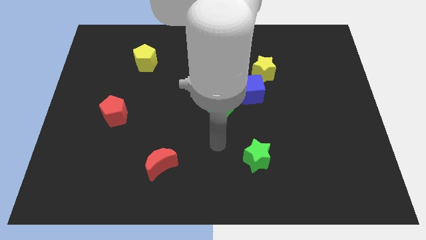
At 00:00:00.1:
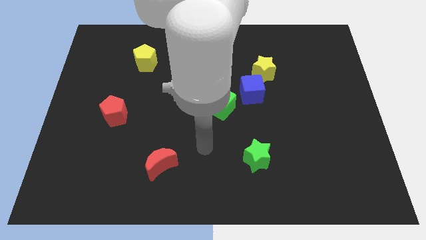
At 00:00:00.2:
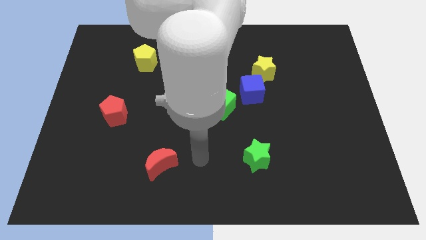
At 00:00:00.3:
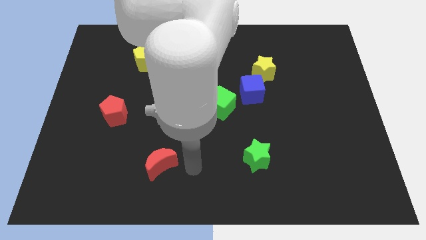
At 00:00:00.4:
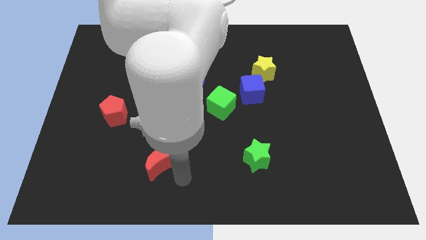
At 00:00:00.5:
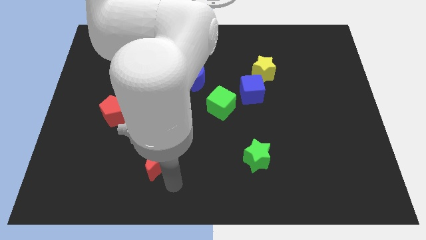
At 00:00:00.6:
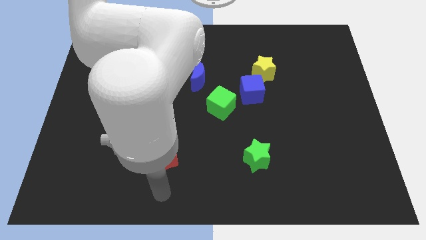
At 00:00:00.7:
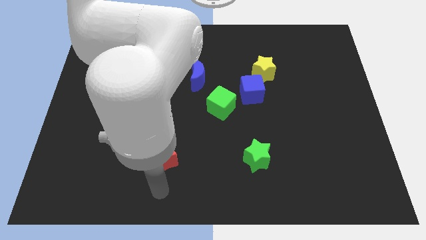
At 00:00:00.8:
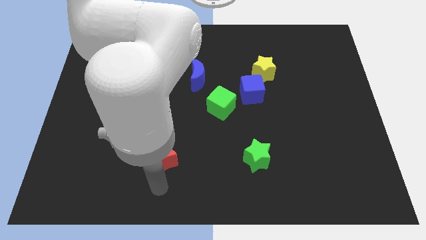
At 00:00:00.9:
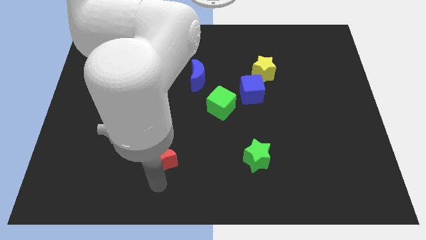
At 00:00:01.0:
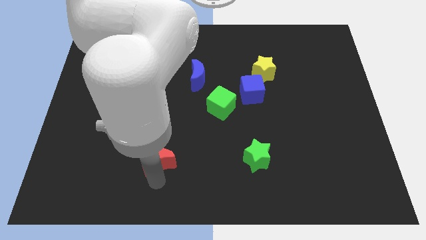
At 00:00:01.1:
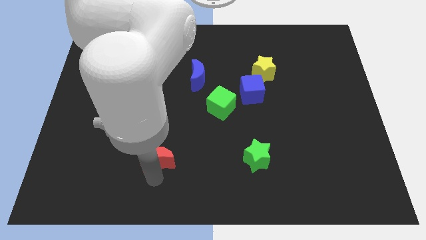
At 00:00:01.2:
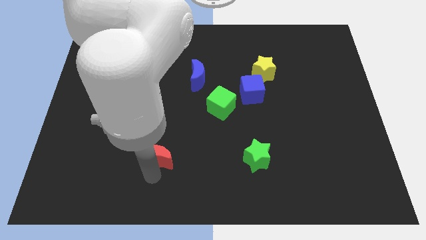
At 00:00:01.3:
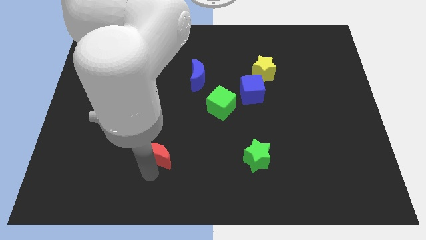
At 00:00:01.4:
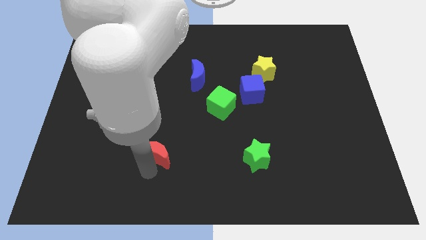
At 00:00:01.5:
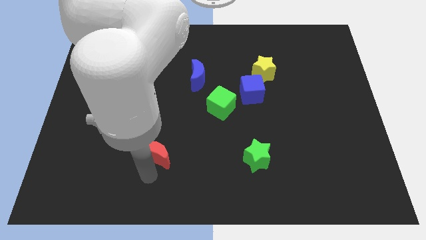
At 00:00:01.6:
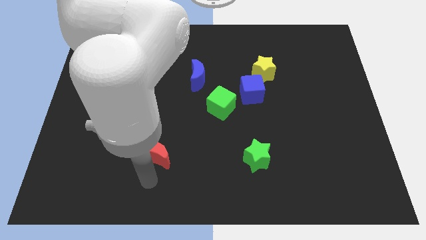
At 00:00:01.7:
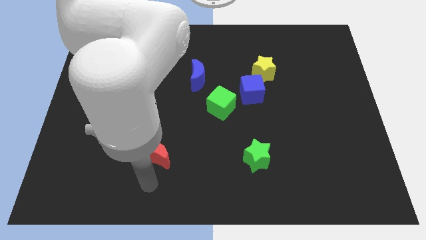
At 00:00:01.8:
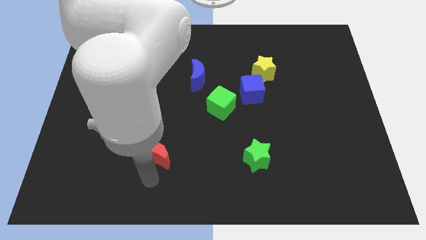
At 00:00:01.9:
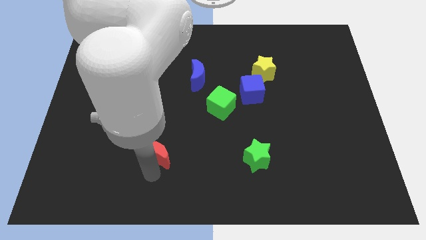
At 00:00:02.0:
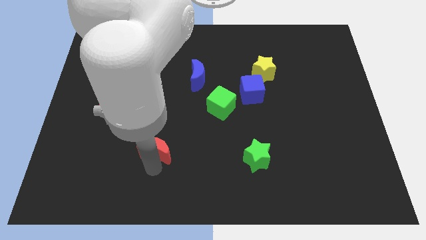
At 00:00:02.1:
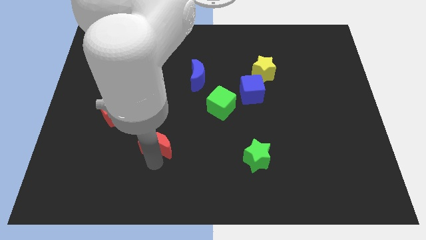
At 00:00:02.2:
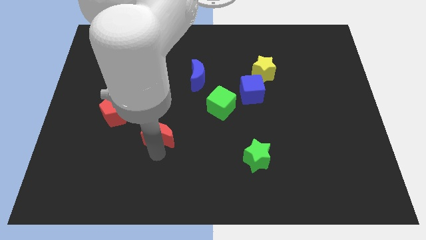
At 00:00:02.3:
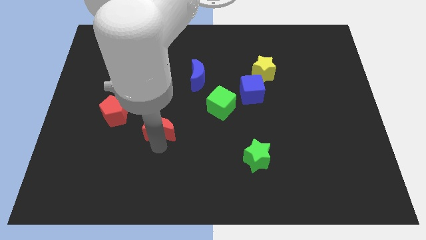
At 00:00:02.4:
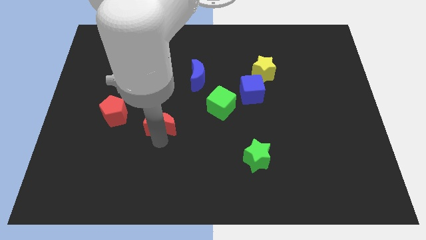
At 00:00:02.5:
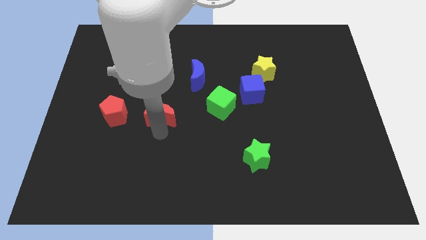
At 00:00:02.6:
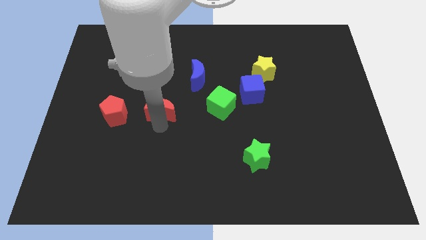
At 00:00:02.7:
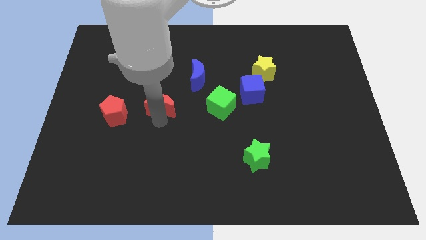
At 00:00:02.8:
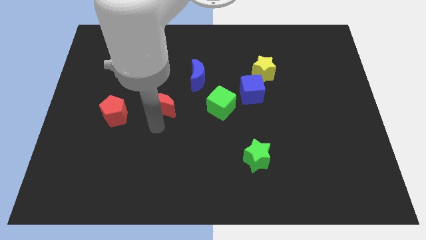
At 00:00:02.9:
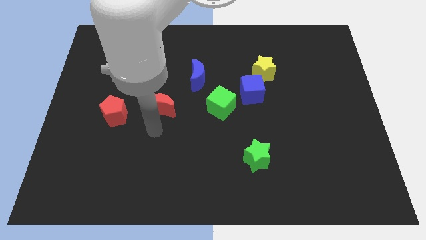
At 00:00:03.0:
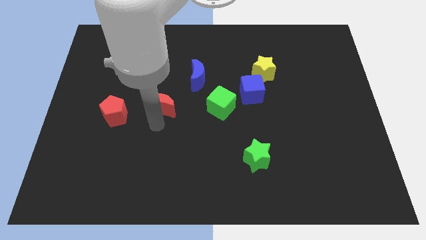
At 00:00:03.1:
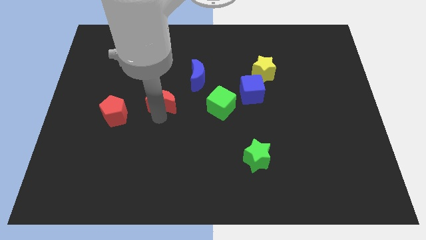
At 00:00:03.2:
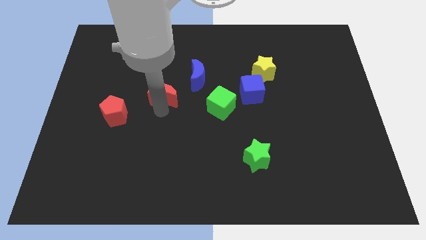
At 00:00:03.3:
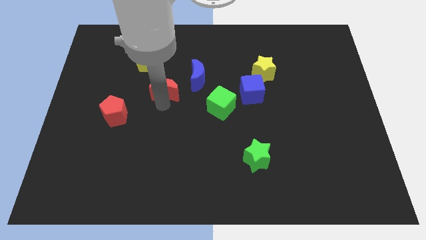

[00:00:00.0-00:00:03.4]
move the red moon up

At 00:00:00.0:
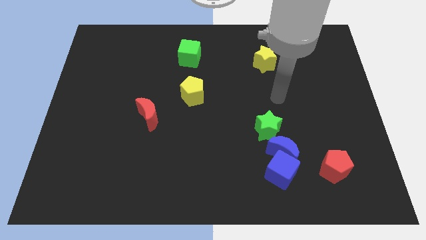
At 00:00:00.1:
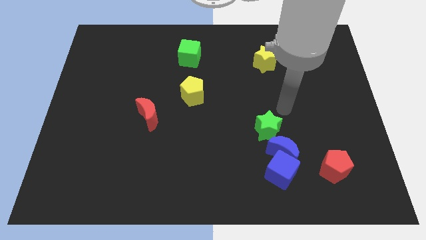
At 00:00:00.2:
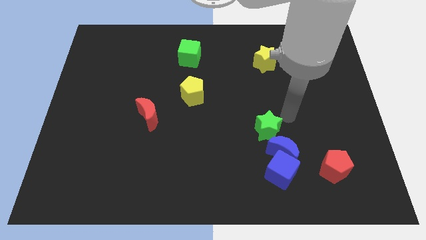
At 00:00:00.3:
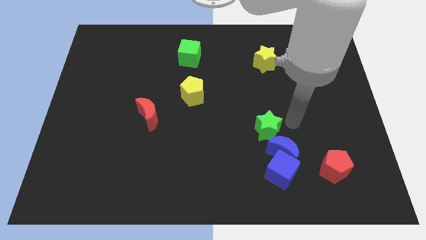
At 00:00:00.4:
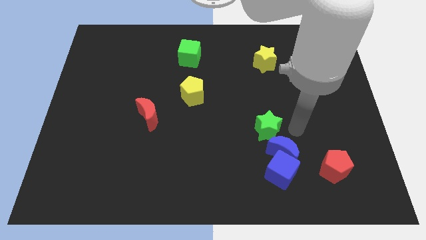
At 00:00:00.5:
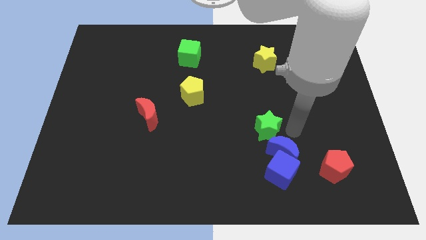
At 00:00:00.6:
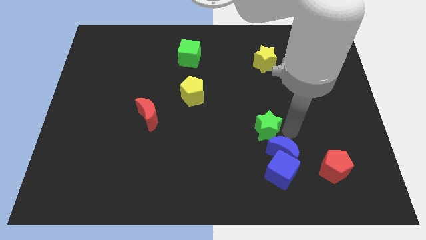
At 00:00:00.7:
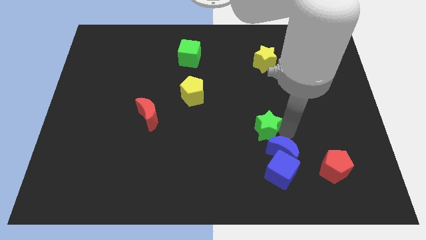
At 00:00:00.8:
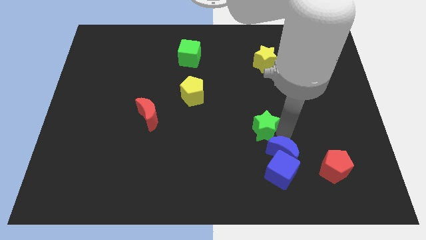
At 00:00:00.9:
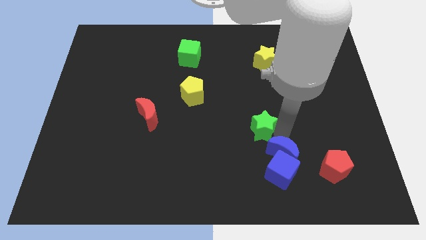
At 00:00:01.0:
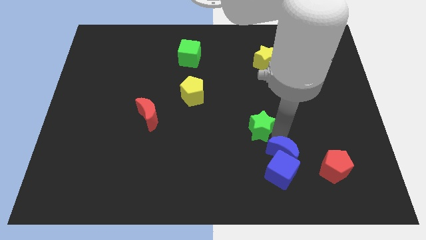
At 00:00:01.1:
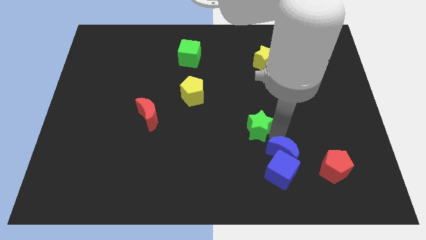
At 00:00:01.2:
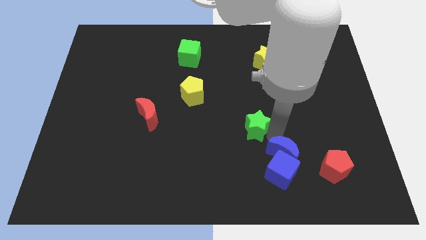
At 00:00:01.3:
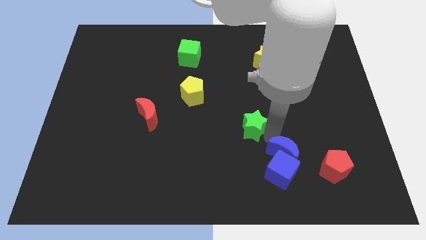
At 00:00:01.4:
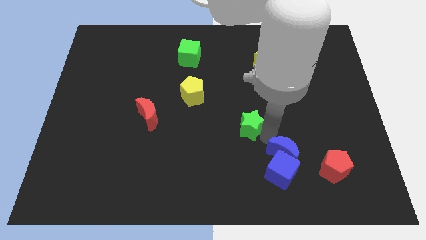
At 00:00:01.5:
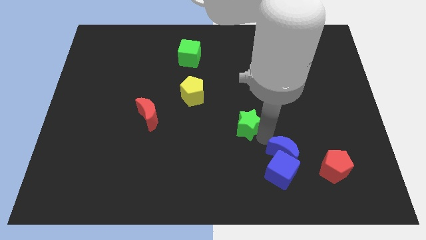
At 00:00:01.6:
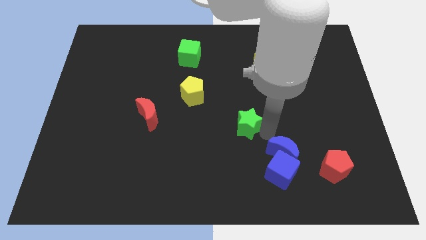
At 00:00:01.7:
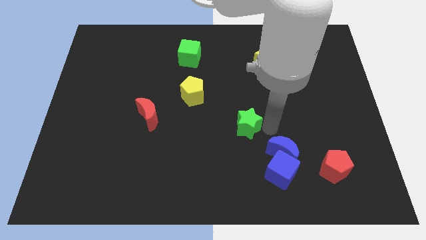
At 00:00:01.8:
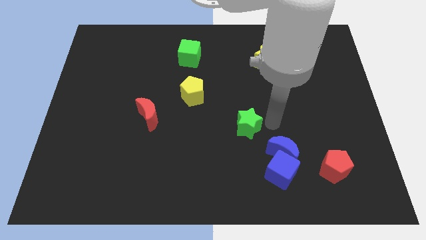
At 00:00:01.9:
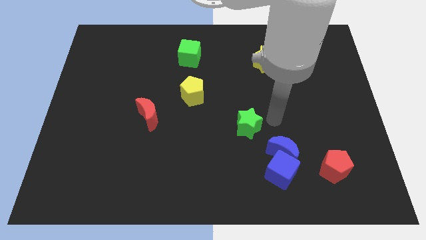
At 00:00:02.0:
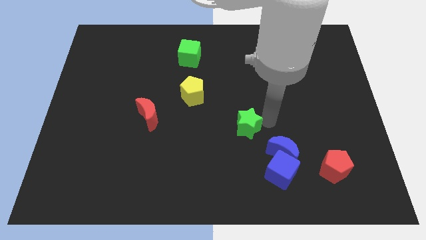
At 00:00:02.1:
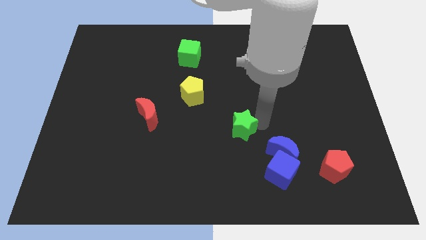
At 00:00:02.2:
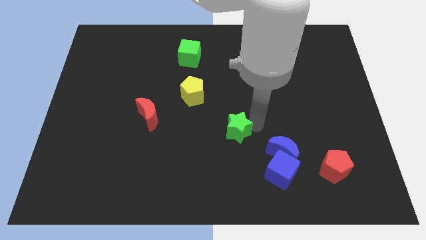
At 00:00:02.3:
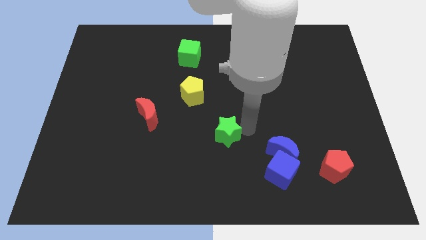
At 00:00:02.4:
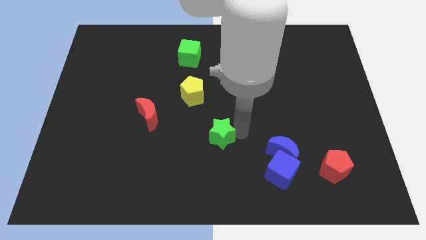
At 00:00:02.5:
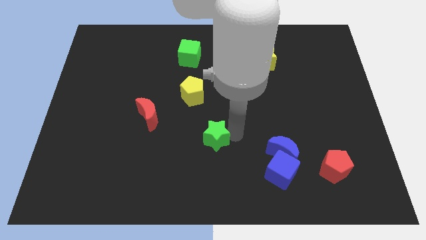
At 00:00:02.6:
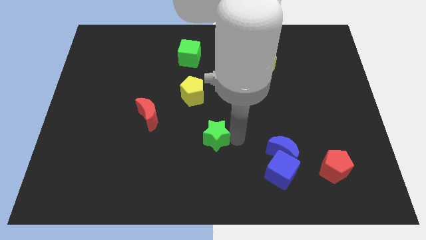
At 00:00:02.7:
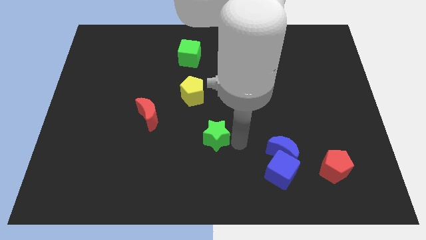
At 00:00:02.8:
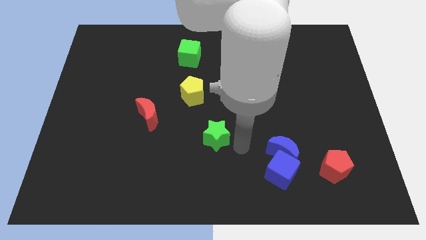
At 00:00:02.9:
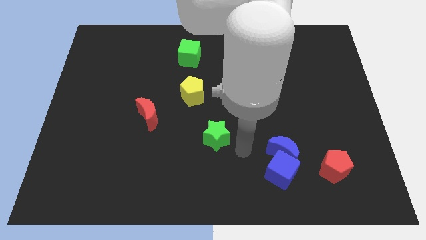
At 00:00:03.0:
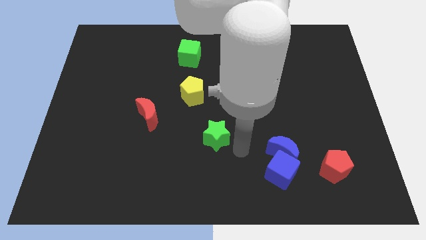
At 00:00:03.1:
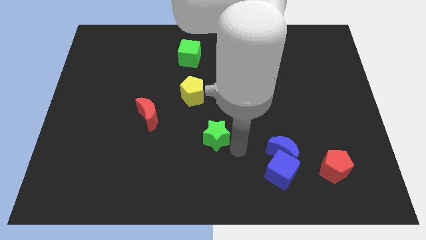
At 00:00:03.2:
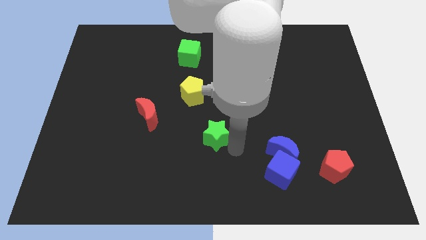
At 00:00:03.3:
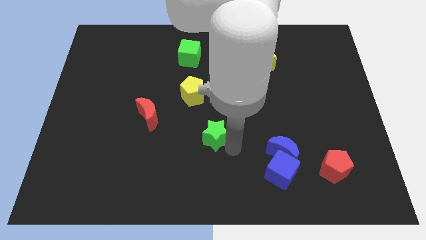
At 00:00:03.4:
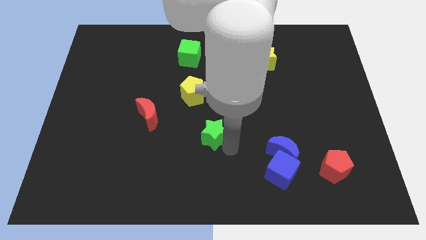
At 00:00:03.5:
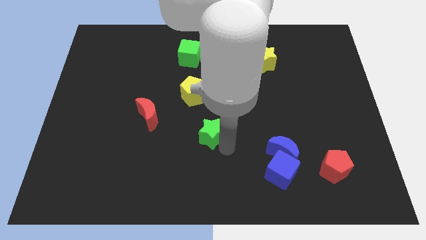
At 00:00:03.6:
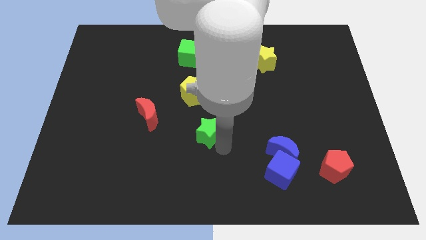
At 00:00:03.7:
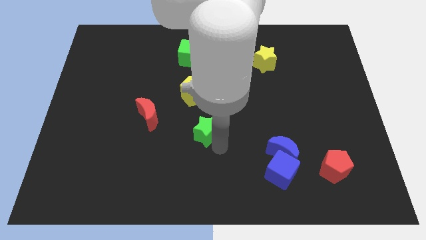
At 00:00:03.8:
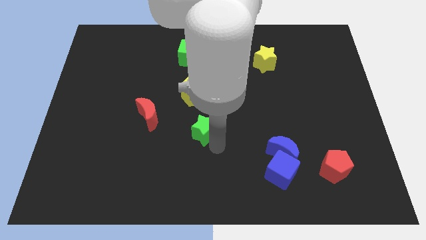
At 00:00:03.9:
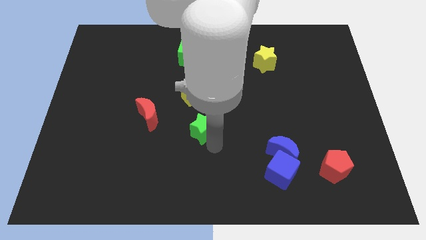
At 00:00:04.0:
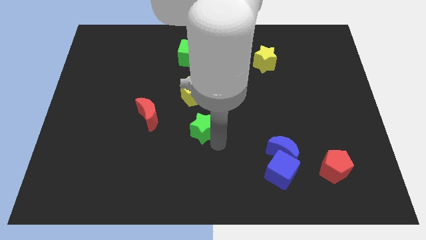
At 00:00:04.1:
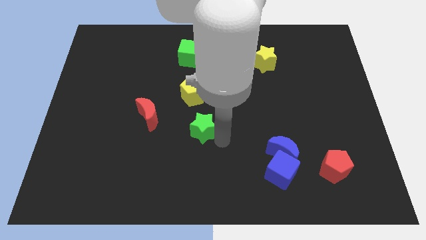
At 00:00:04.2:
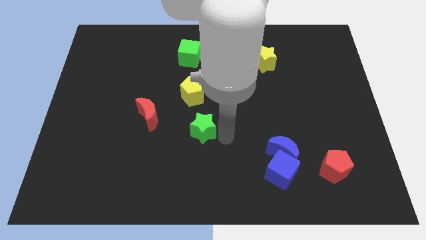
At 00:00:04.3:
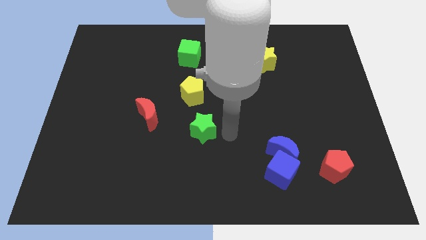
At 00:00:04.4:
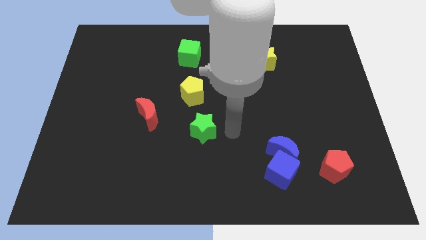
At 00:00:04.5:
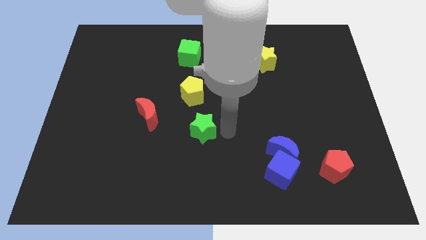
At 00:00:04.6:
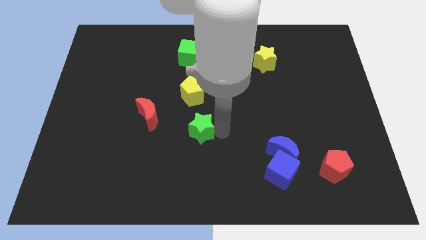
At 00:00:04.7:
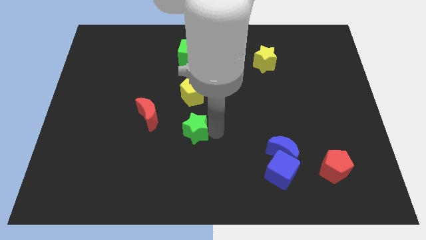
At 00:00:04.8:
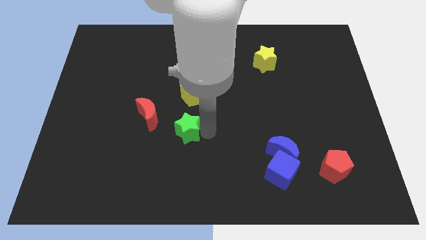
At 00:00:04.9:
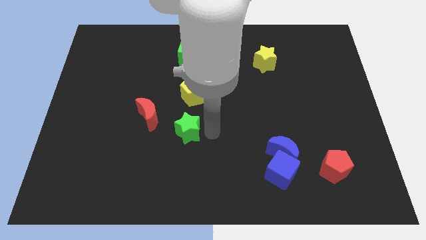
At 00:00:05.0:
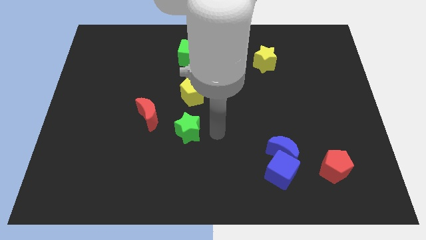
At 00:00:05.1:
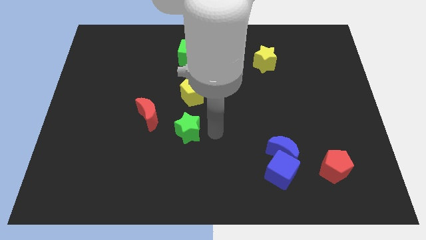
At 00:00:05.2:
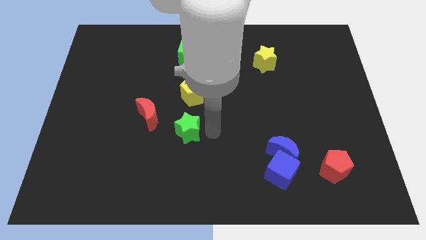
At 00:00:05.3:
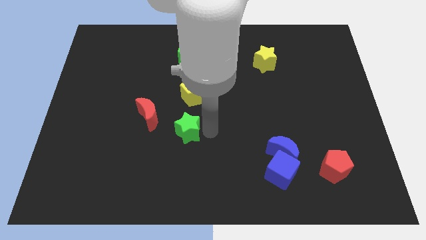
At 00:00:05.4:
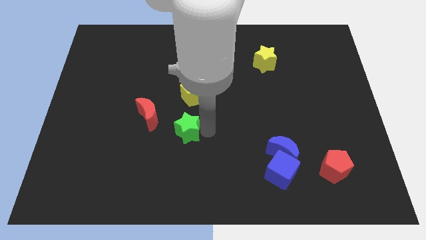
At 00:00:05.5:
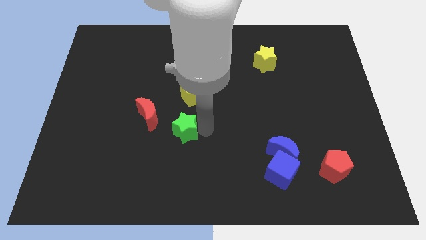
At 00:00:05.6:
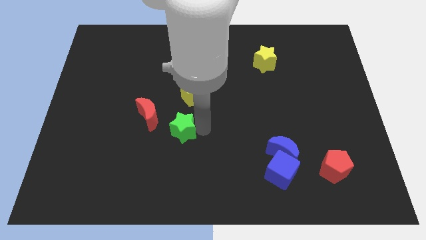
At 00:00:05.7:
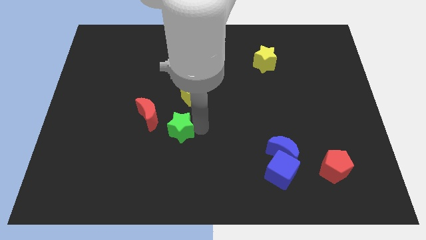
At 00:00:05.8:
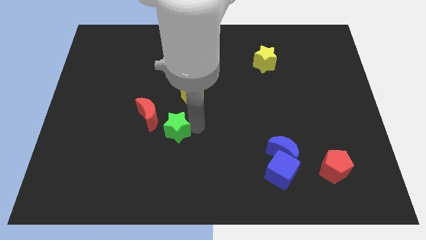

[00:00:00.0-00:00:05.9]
slide the green star to the left
